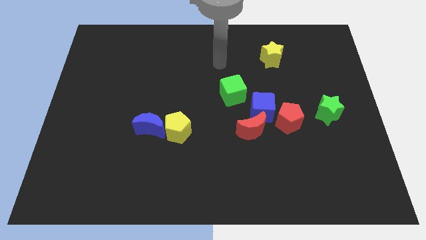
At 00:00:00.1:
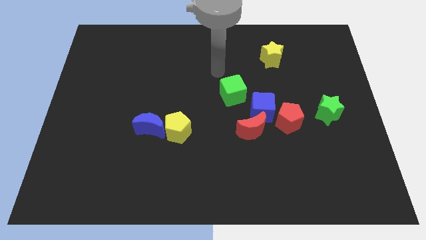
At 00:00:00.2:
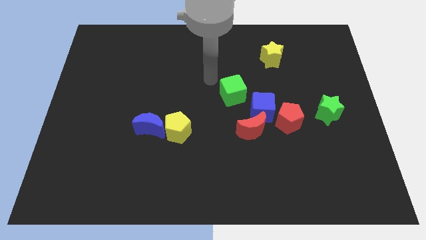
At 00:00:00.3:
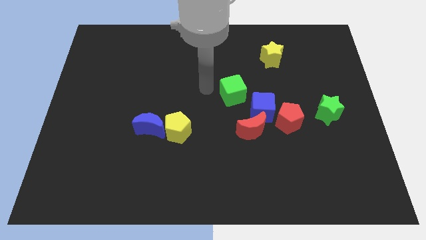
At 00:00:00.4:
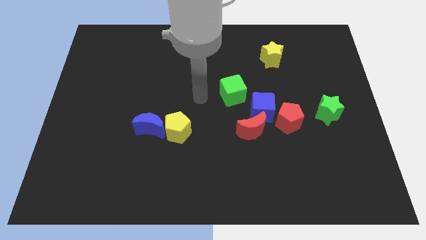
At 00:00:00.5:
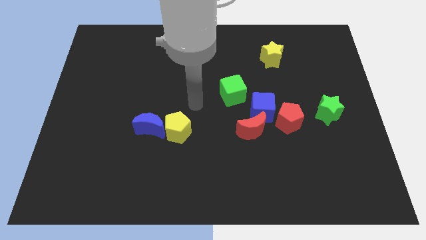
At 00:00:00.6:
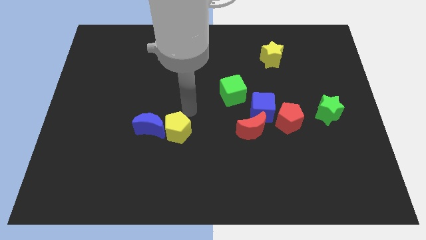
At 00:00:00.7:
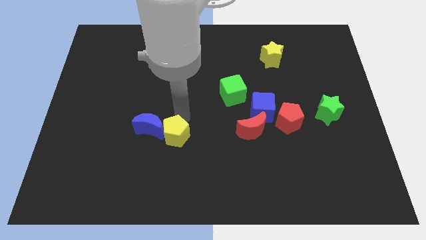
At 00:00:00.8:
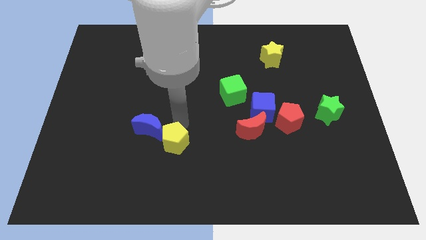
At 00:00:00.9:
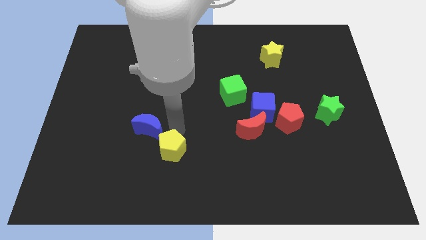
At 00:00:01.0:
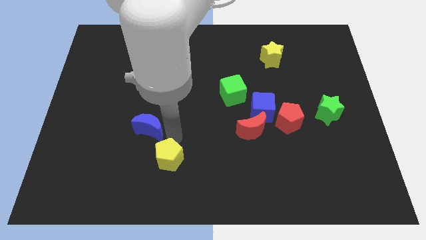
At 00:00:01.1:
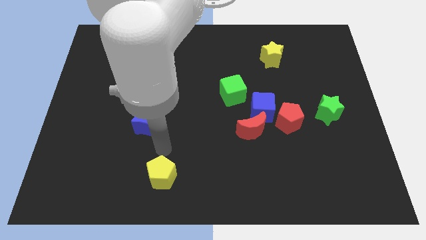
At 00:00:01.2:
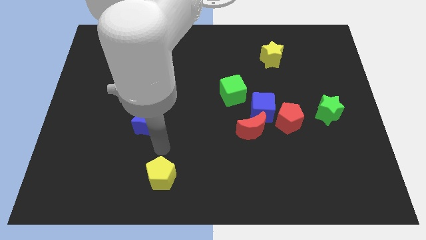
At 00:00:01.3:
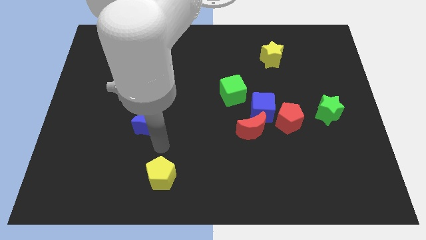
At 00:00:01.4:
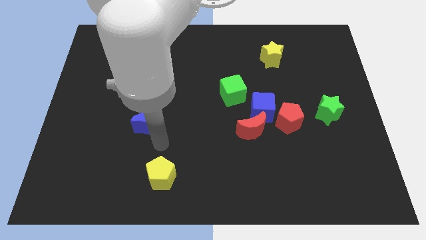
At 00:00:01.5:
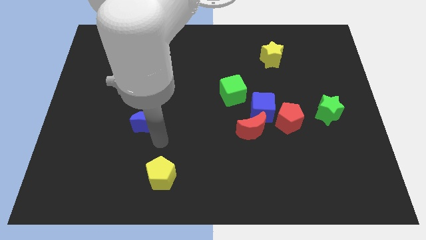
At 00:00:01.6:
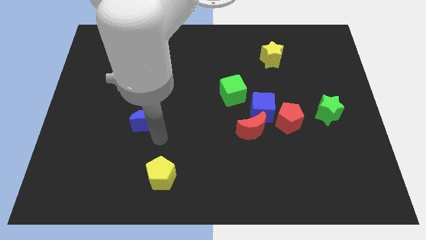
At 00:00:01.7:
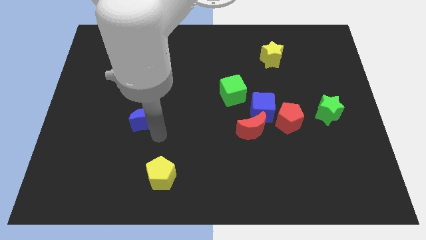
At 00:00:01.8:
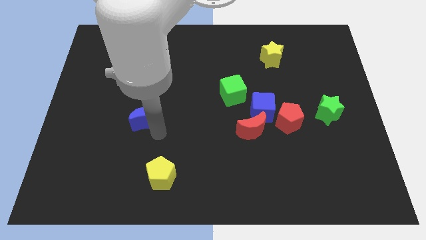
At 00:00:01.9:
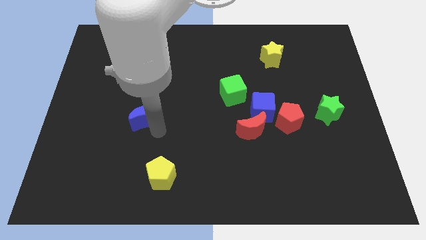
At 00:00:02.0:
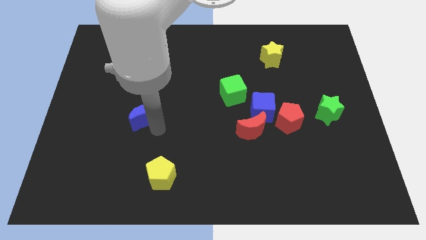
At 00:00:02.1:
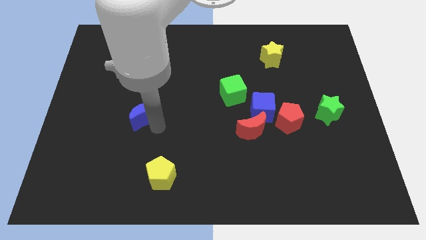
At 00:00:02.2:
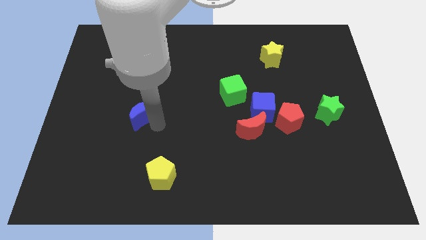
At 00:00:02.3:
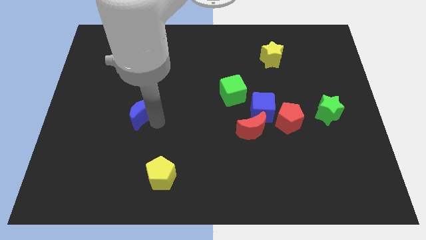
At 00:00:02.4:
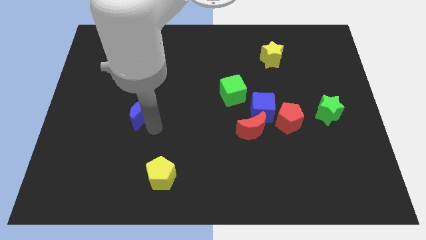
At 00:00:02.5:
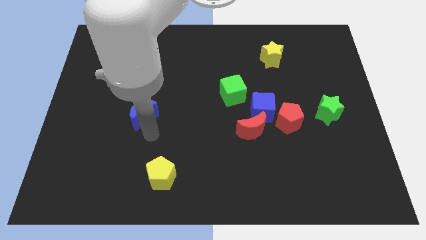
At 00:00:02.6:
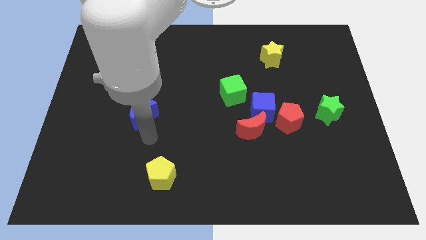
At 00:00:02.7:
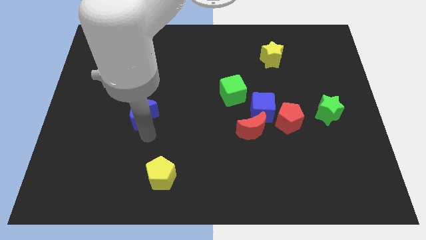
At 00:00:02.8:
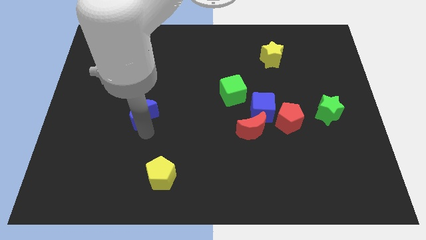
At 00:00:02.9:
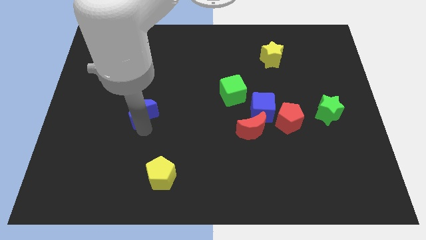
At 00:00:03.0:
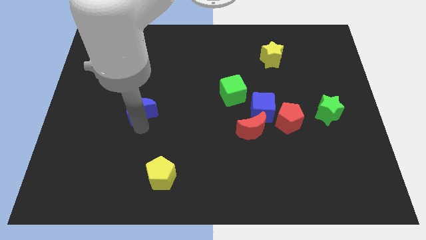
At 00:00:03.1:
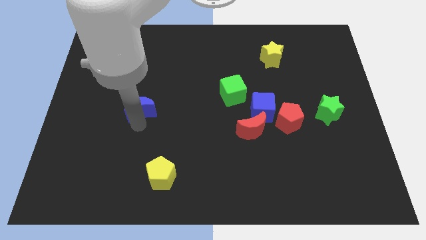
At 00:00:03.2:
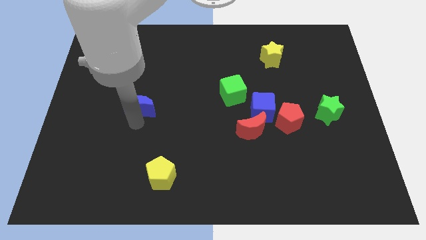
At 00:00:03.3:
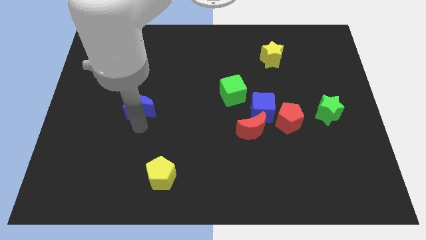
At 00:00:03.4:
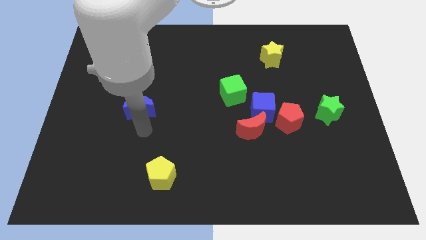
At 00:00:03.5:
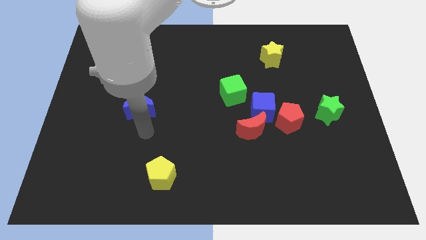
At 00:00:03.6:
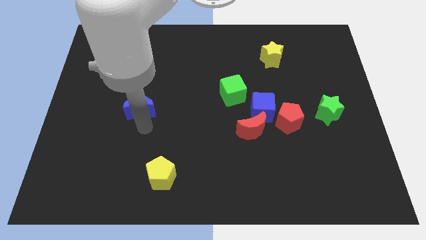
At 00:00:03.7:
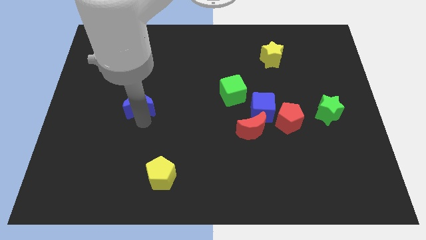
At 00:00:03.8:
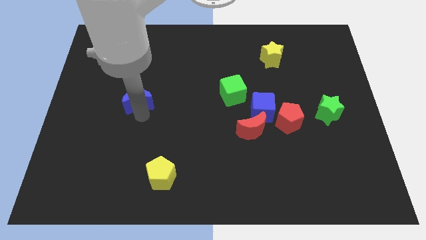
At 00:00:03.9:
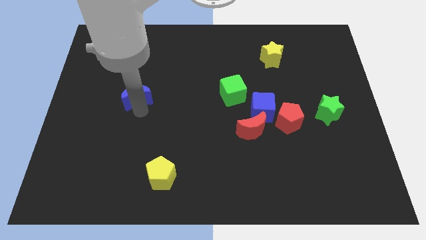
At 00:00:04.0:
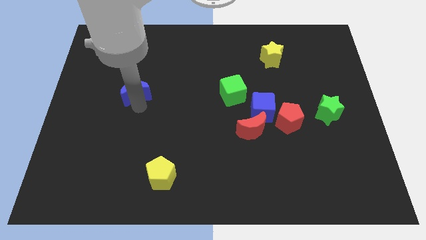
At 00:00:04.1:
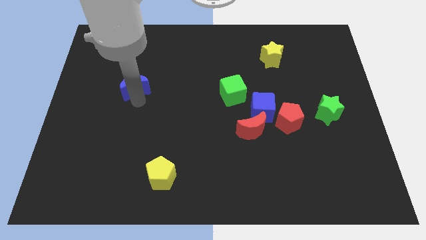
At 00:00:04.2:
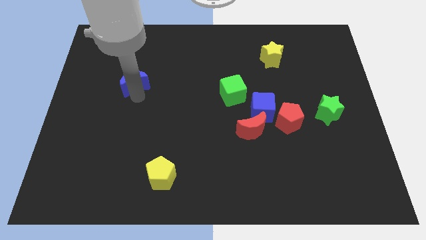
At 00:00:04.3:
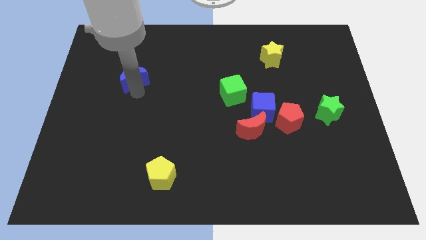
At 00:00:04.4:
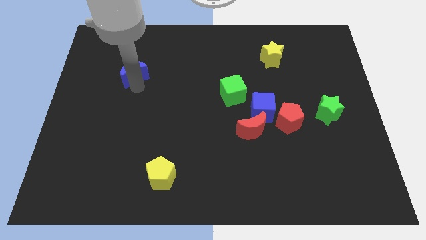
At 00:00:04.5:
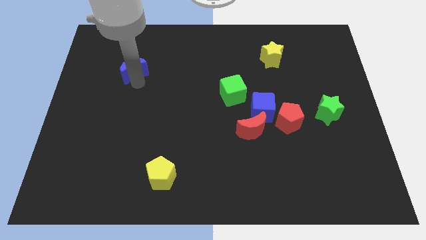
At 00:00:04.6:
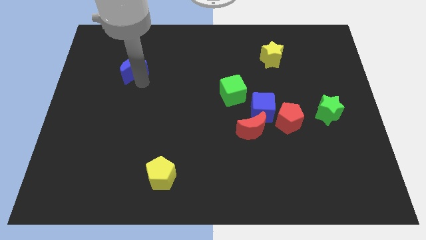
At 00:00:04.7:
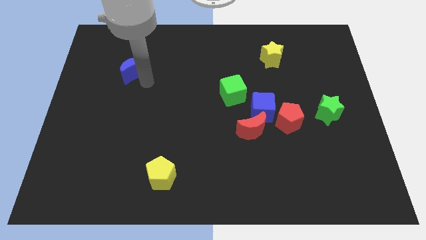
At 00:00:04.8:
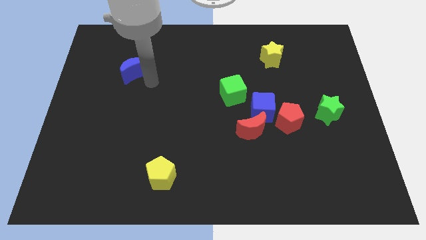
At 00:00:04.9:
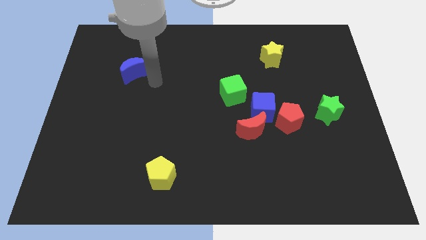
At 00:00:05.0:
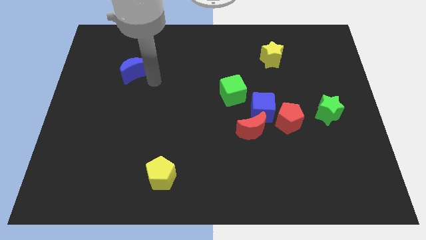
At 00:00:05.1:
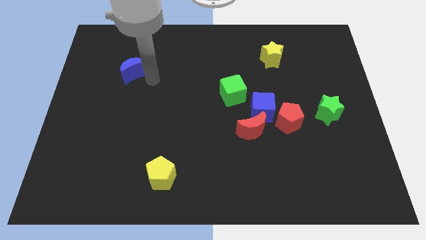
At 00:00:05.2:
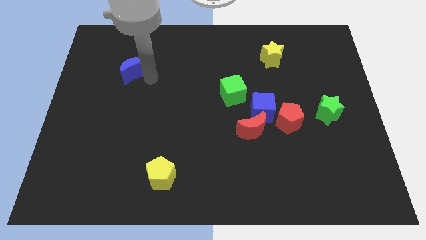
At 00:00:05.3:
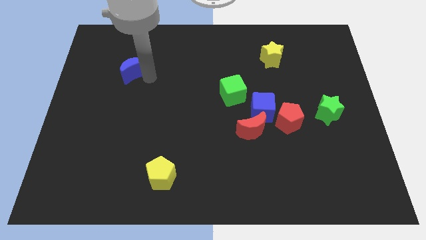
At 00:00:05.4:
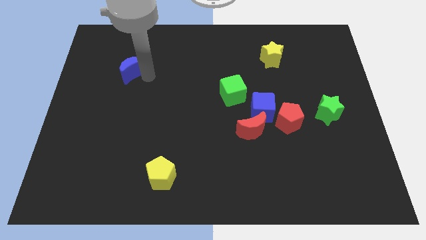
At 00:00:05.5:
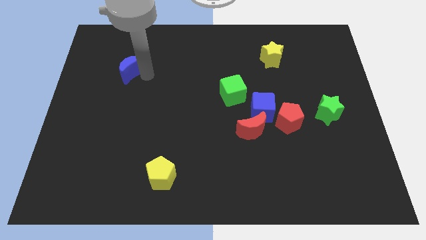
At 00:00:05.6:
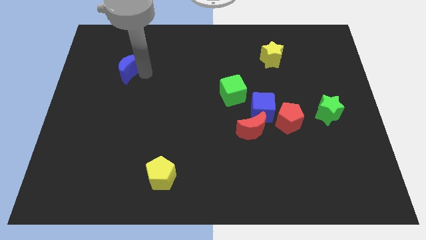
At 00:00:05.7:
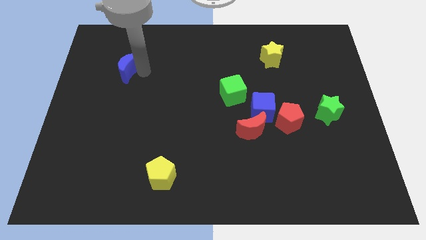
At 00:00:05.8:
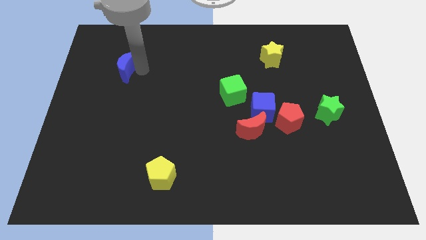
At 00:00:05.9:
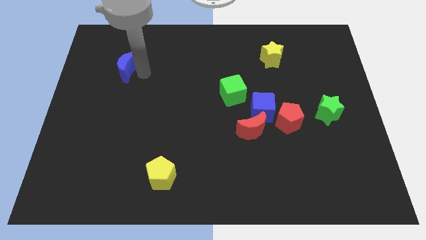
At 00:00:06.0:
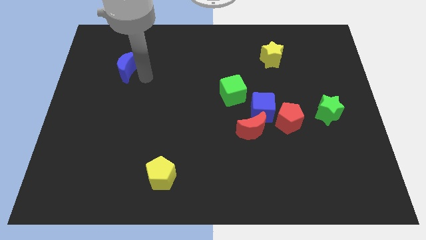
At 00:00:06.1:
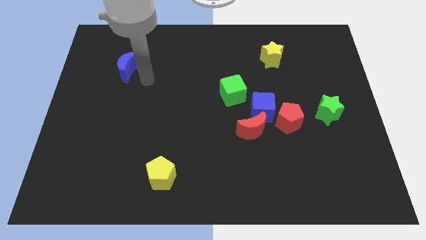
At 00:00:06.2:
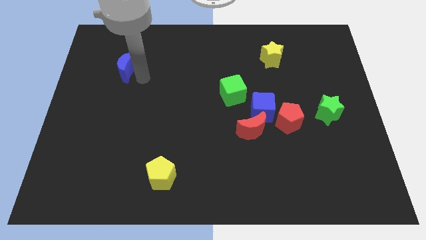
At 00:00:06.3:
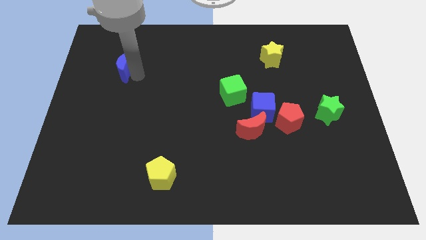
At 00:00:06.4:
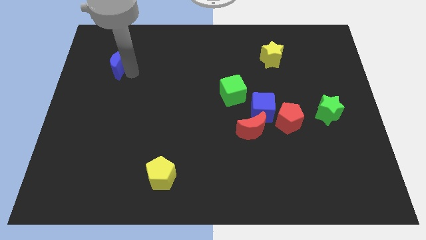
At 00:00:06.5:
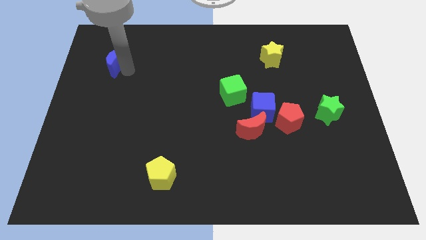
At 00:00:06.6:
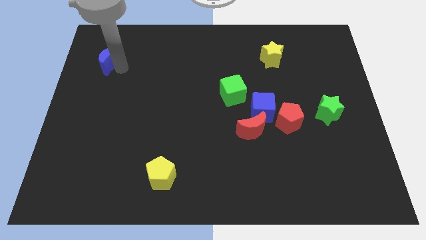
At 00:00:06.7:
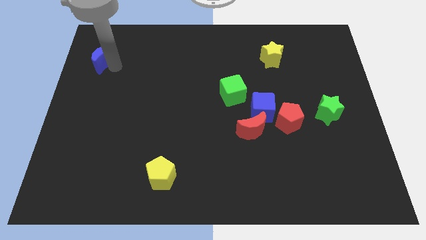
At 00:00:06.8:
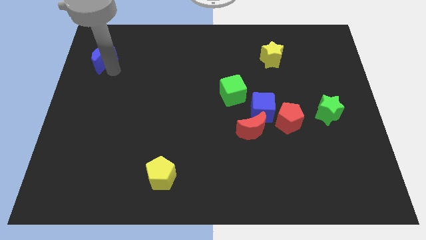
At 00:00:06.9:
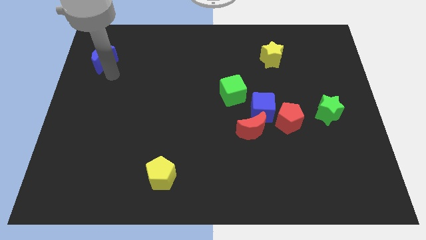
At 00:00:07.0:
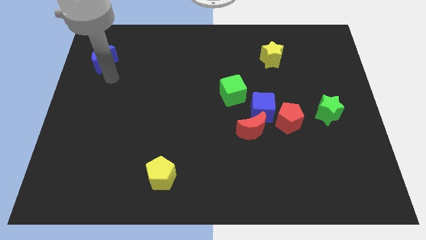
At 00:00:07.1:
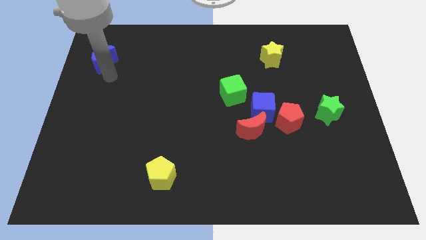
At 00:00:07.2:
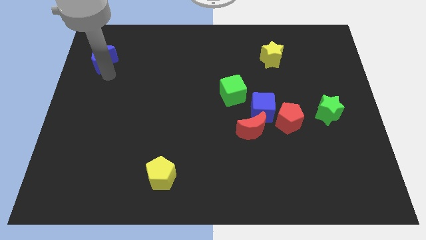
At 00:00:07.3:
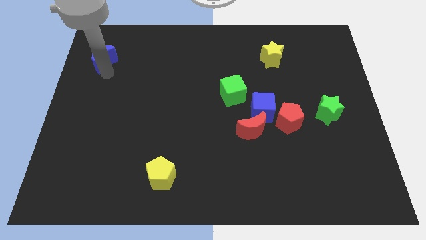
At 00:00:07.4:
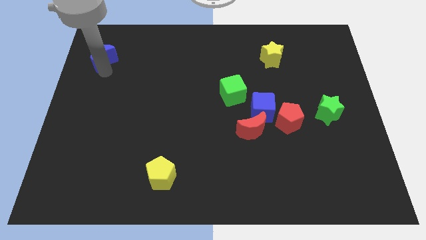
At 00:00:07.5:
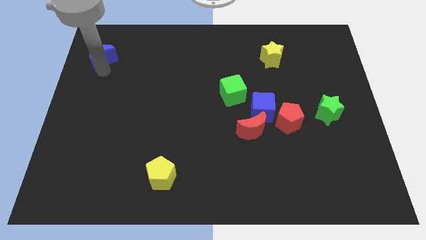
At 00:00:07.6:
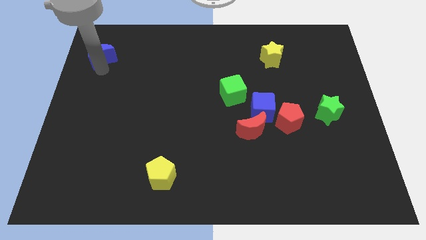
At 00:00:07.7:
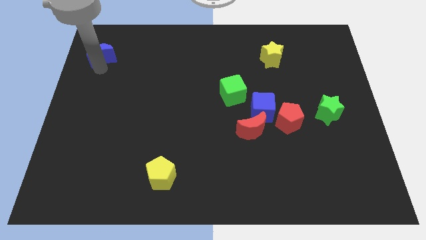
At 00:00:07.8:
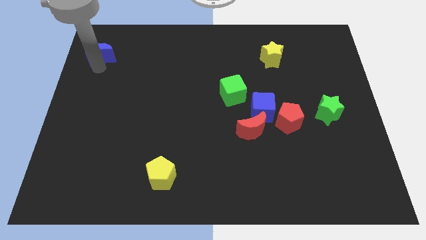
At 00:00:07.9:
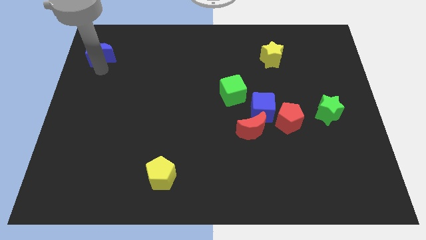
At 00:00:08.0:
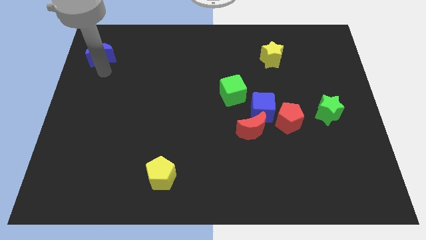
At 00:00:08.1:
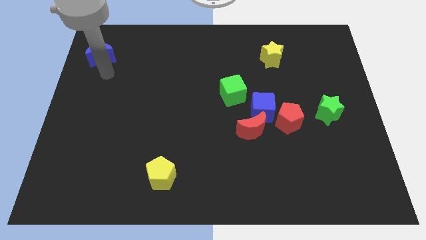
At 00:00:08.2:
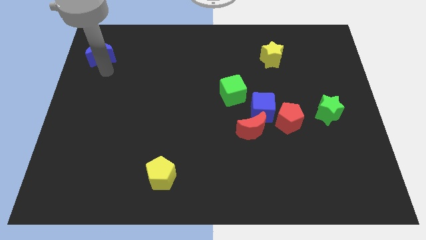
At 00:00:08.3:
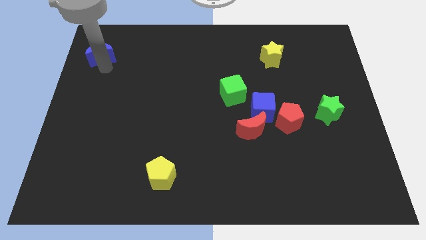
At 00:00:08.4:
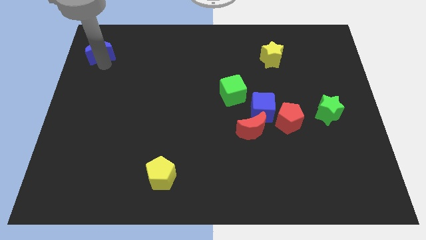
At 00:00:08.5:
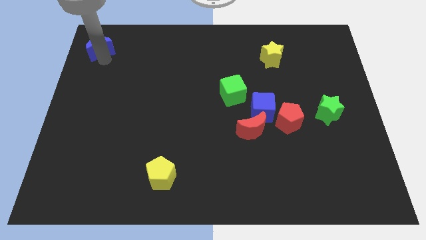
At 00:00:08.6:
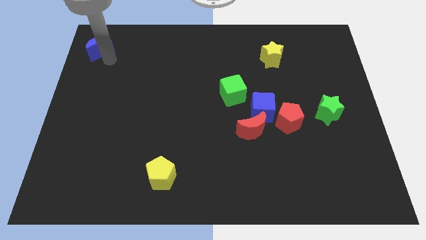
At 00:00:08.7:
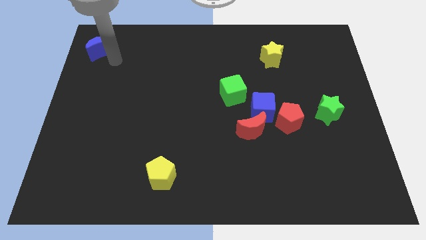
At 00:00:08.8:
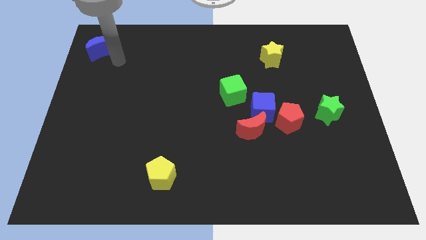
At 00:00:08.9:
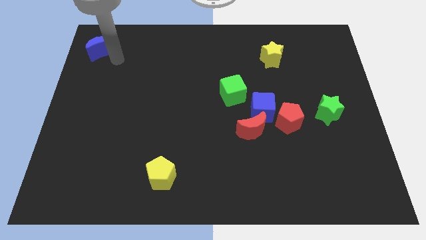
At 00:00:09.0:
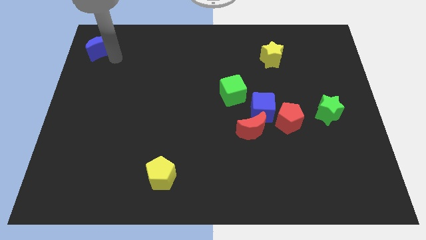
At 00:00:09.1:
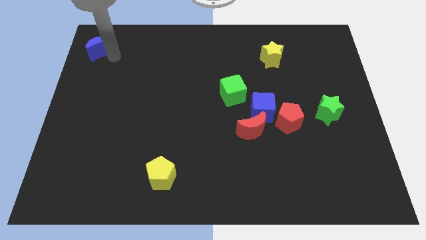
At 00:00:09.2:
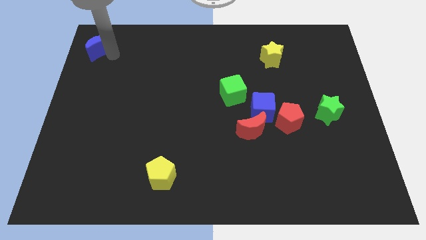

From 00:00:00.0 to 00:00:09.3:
slide the blue moon to the top left
